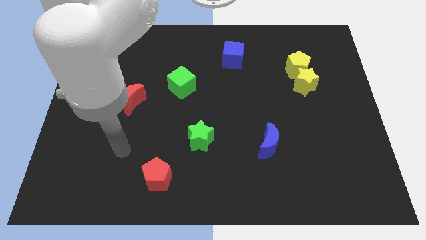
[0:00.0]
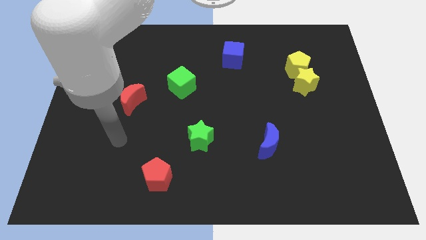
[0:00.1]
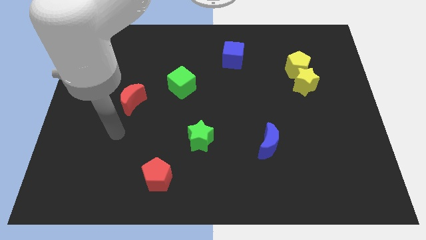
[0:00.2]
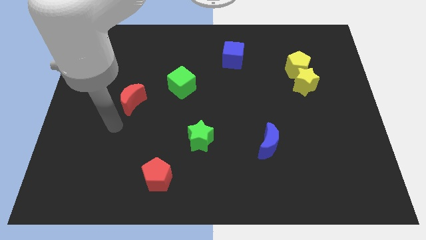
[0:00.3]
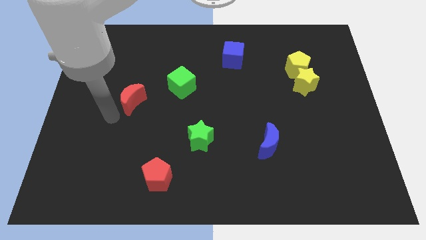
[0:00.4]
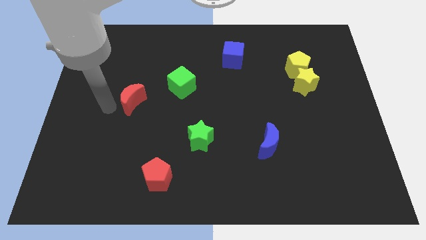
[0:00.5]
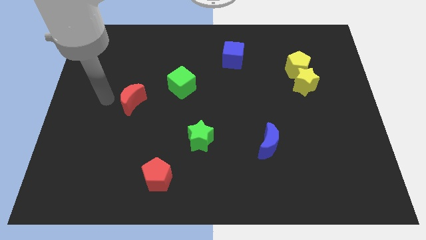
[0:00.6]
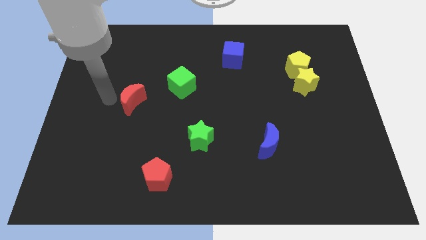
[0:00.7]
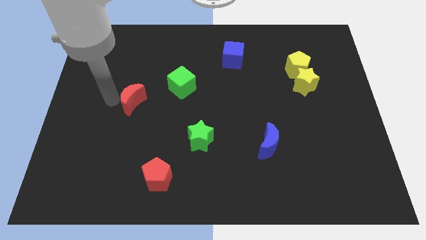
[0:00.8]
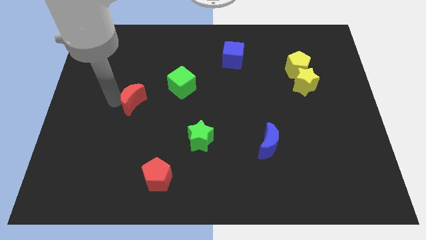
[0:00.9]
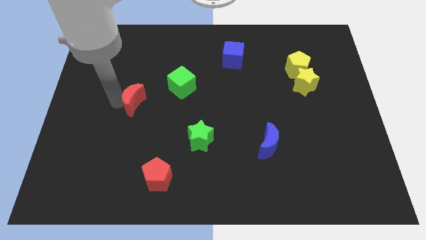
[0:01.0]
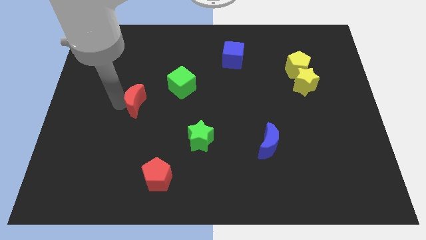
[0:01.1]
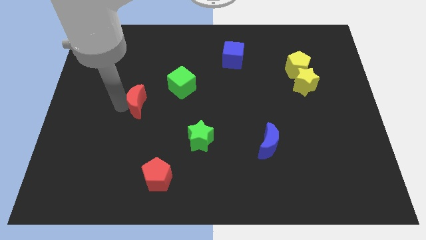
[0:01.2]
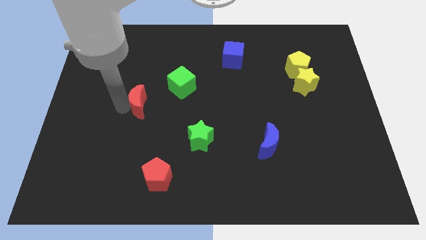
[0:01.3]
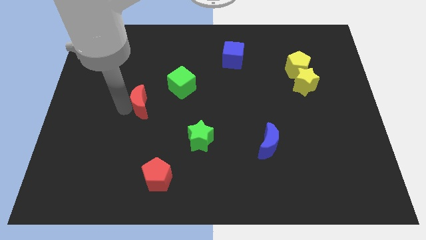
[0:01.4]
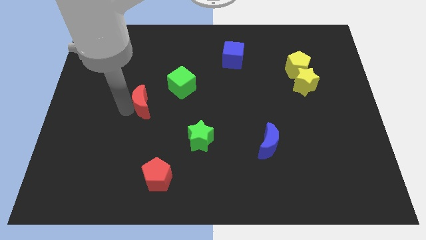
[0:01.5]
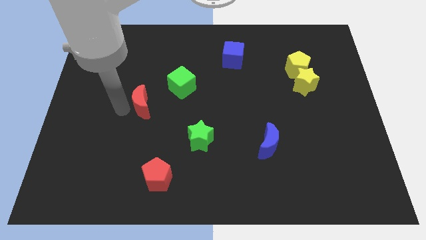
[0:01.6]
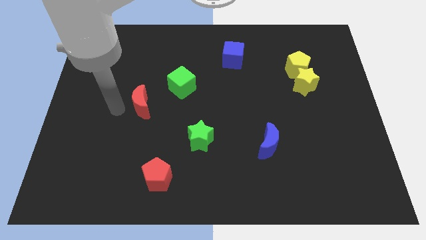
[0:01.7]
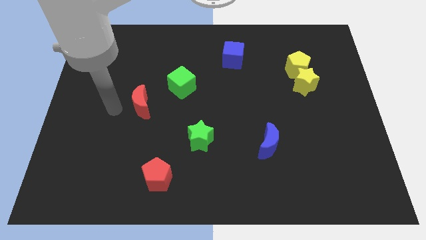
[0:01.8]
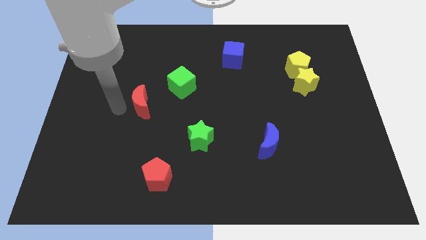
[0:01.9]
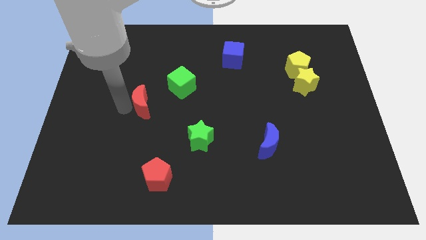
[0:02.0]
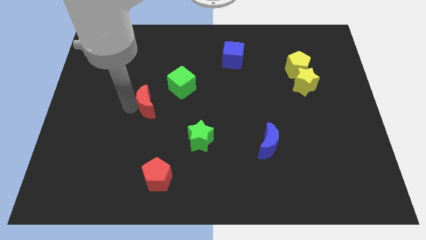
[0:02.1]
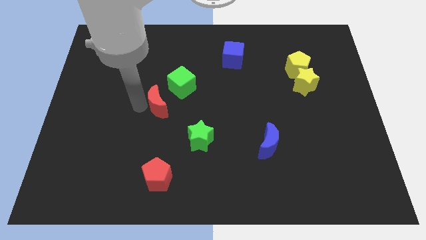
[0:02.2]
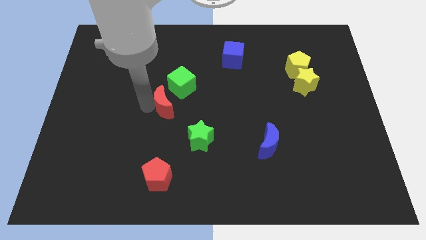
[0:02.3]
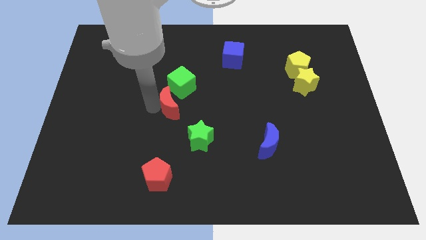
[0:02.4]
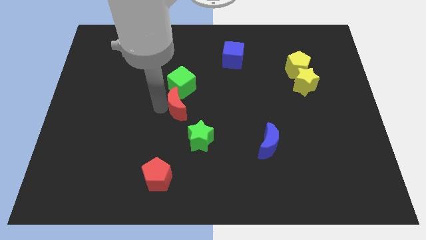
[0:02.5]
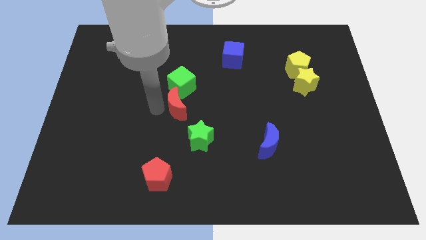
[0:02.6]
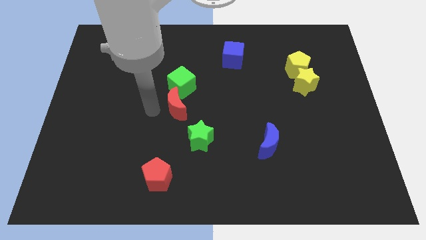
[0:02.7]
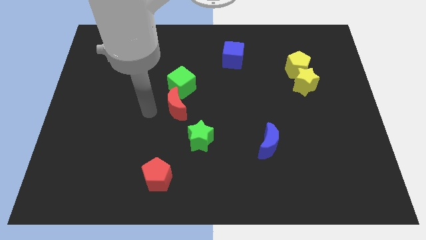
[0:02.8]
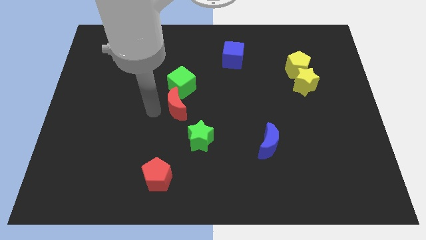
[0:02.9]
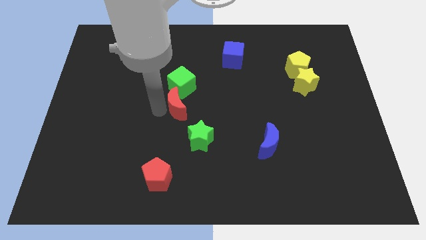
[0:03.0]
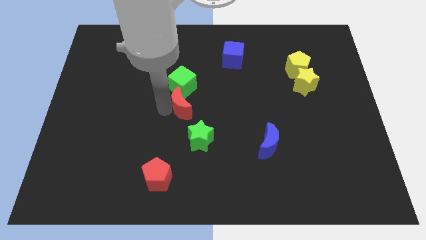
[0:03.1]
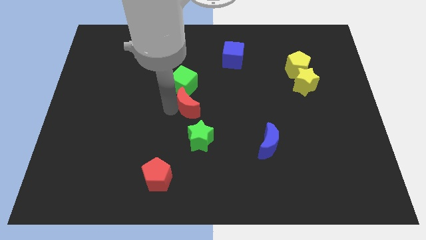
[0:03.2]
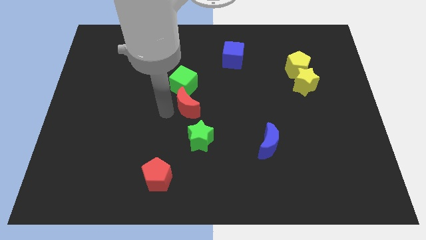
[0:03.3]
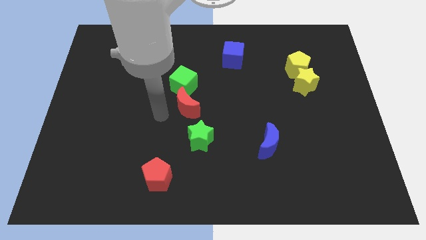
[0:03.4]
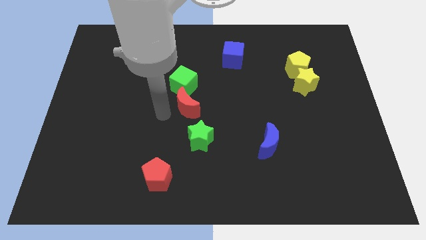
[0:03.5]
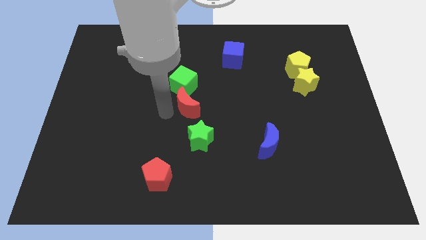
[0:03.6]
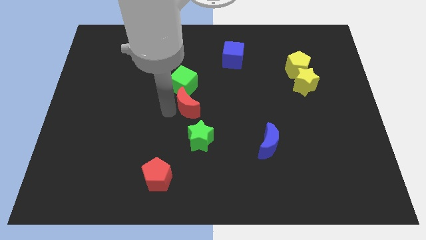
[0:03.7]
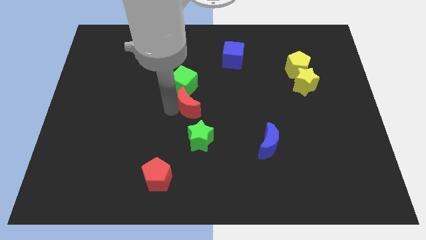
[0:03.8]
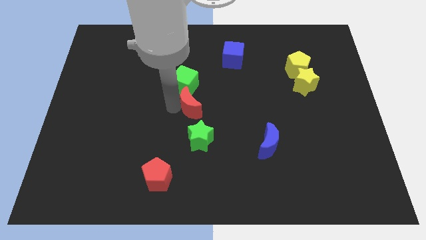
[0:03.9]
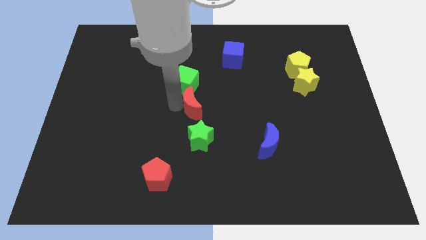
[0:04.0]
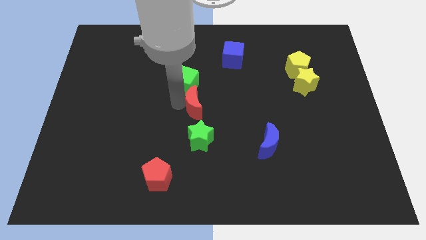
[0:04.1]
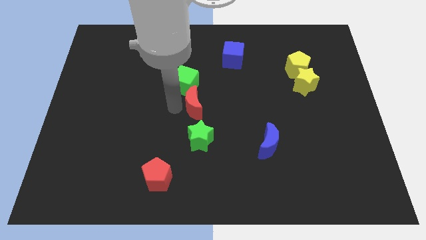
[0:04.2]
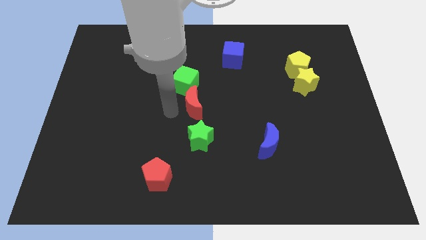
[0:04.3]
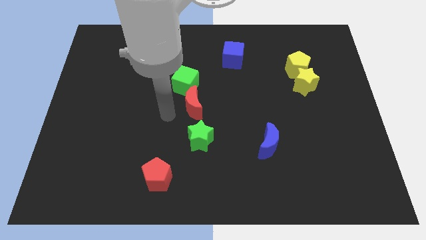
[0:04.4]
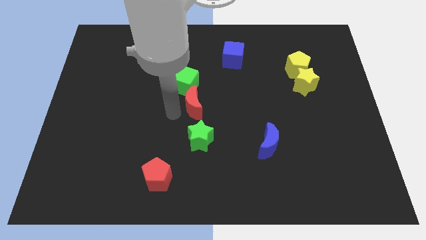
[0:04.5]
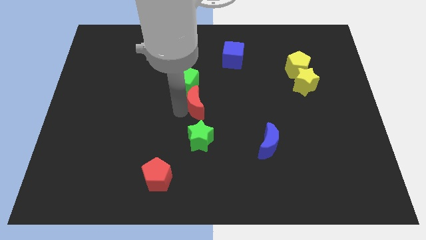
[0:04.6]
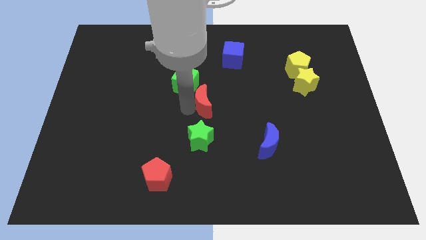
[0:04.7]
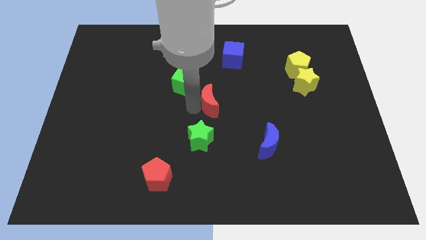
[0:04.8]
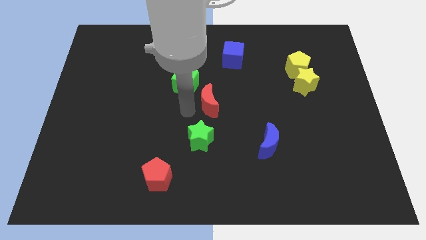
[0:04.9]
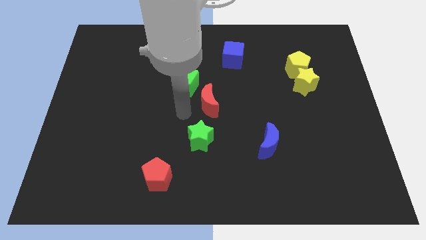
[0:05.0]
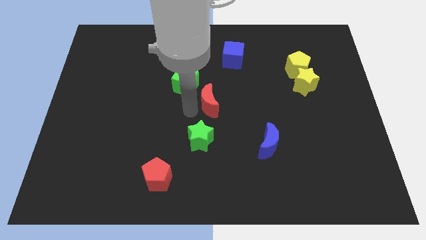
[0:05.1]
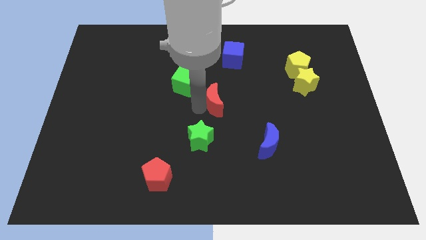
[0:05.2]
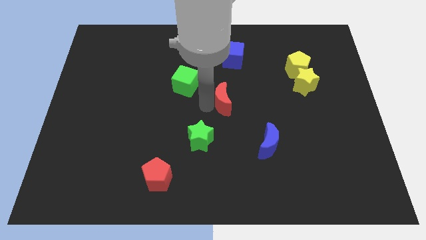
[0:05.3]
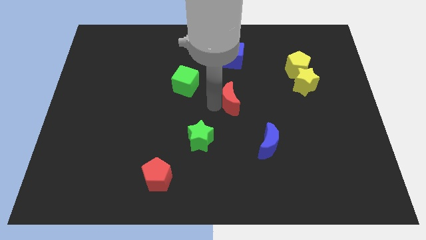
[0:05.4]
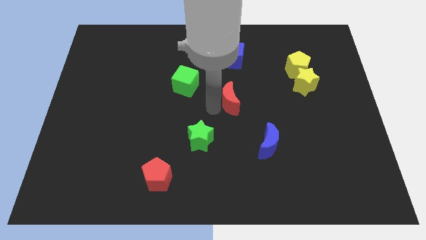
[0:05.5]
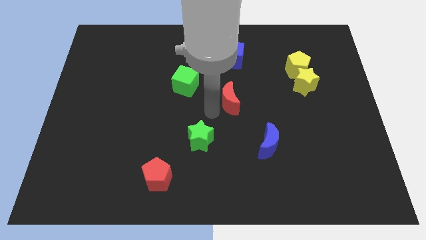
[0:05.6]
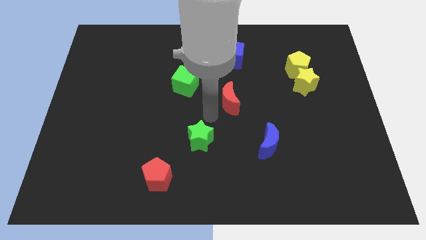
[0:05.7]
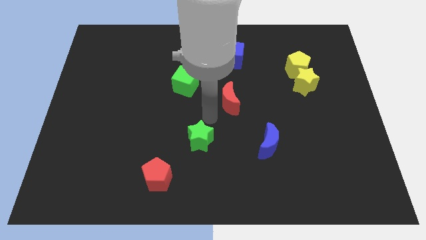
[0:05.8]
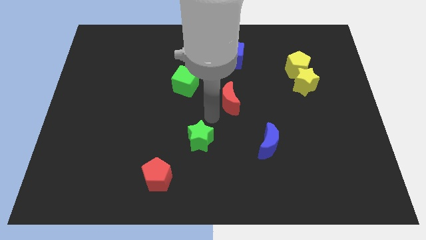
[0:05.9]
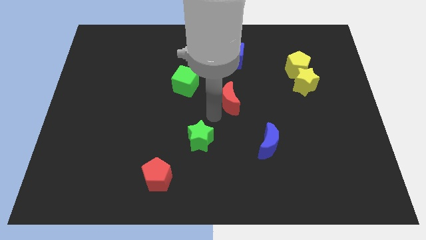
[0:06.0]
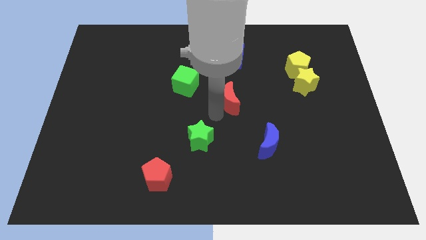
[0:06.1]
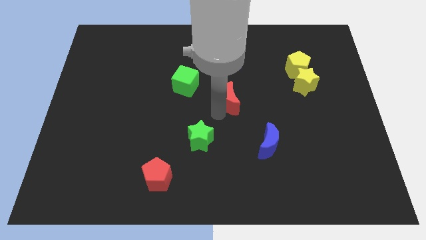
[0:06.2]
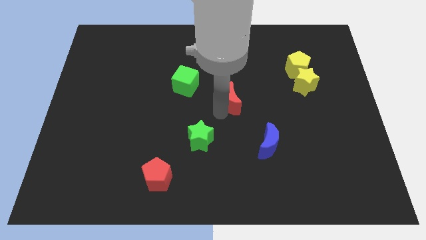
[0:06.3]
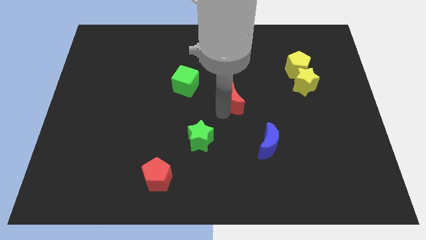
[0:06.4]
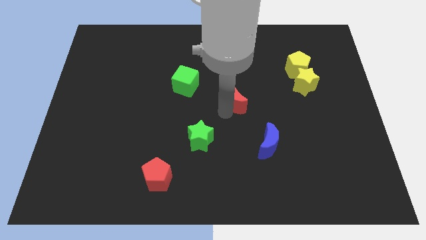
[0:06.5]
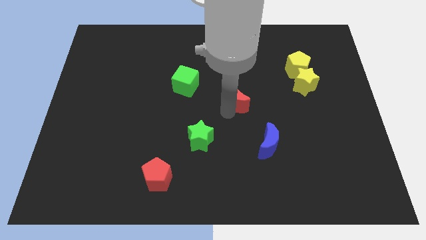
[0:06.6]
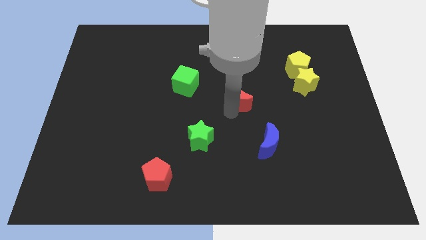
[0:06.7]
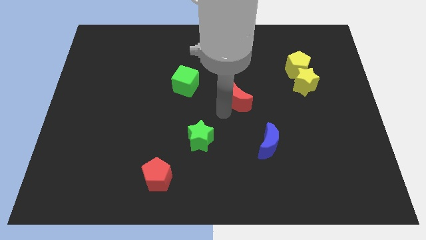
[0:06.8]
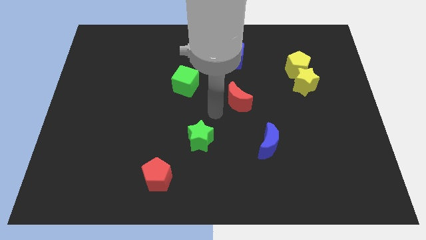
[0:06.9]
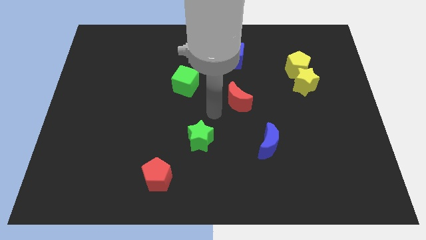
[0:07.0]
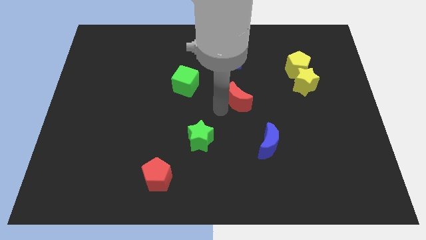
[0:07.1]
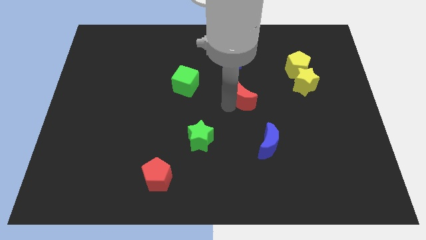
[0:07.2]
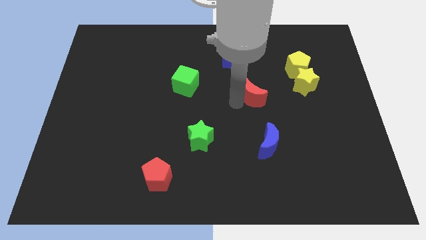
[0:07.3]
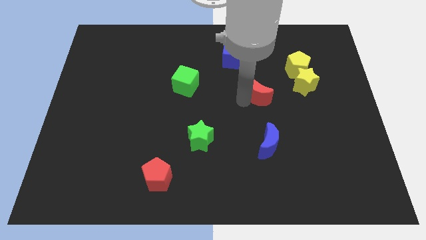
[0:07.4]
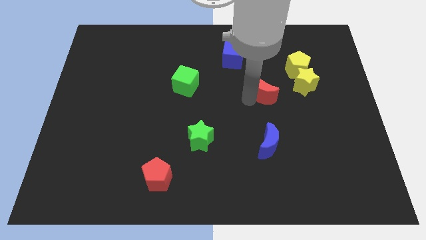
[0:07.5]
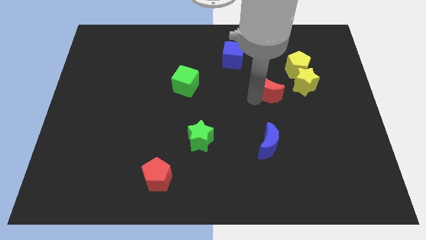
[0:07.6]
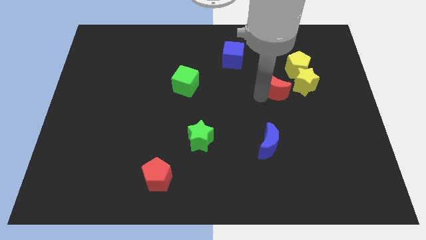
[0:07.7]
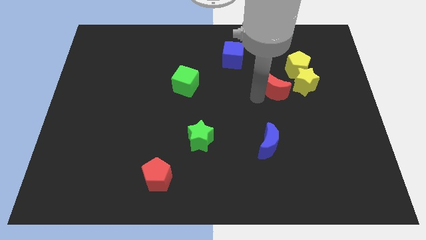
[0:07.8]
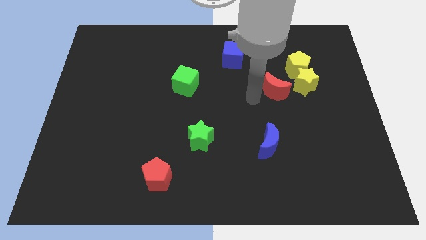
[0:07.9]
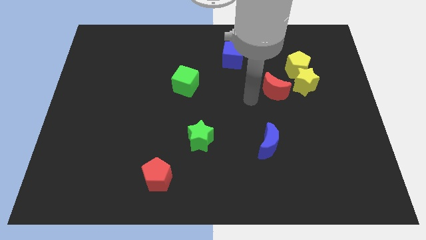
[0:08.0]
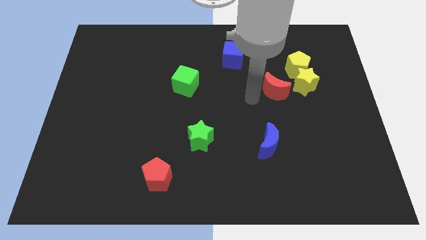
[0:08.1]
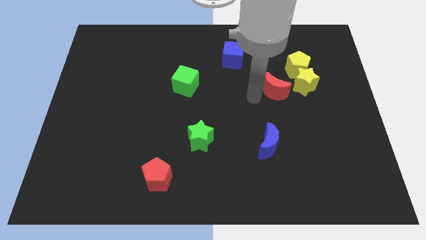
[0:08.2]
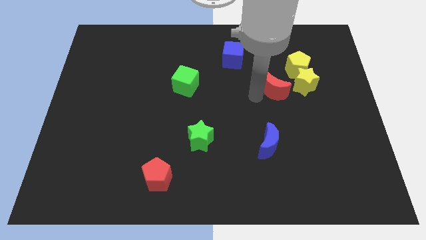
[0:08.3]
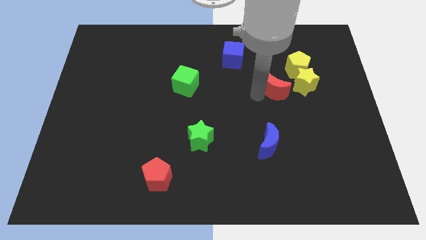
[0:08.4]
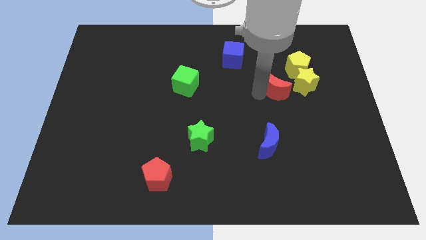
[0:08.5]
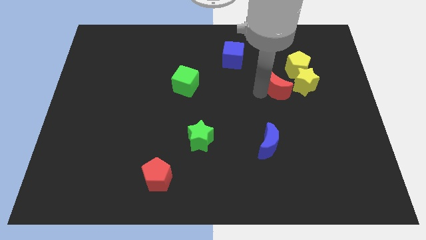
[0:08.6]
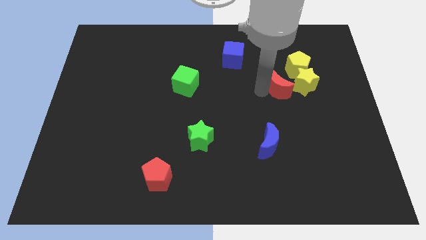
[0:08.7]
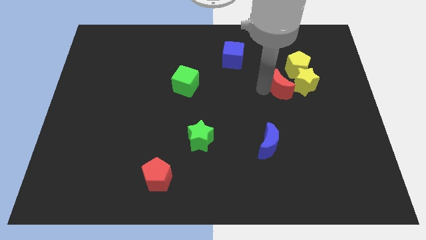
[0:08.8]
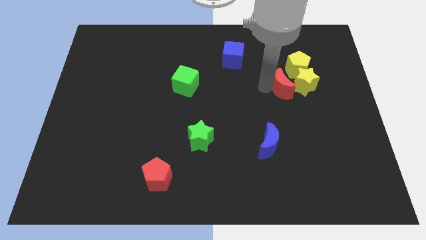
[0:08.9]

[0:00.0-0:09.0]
move the red moon to the yellow star
